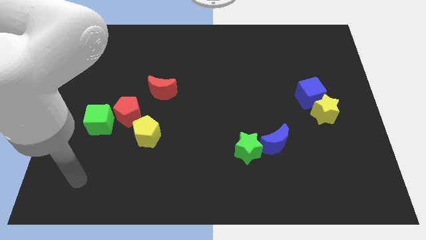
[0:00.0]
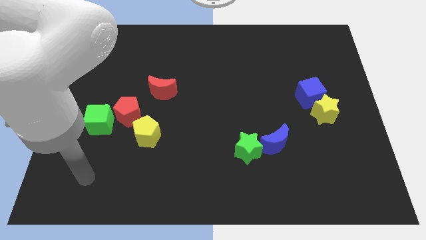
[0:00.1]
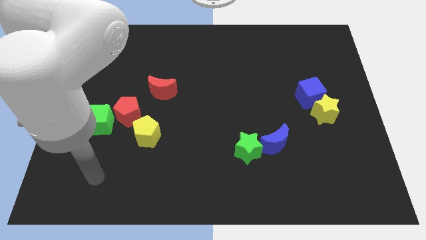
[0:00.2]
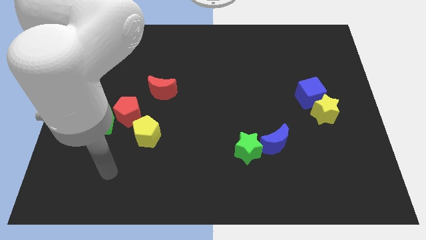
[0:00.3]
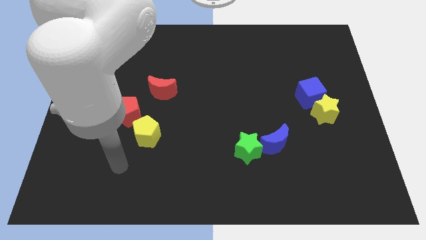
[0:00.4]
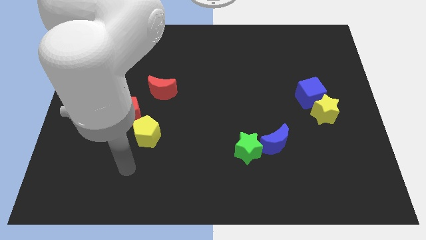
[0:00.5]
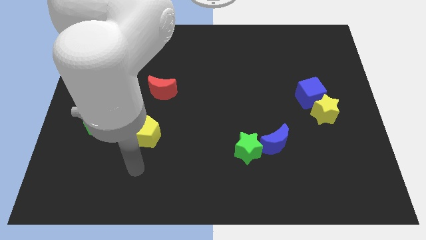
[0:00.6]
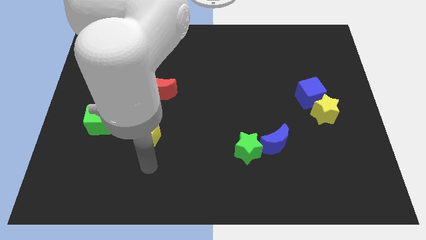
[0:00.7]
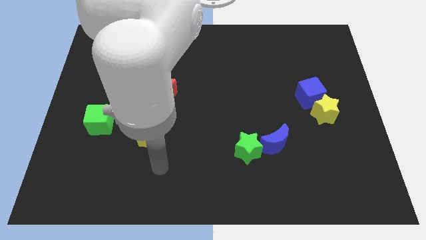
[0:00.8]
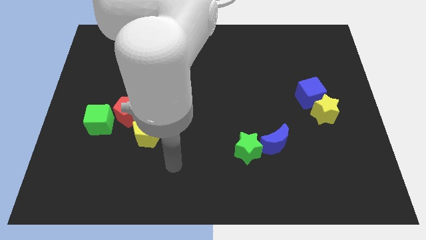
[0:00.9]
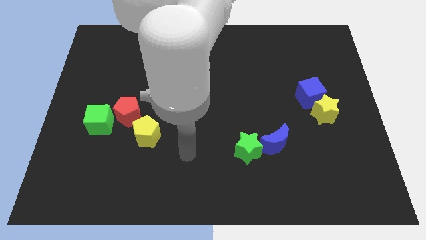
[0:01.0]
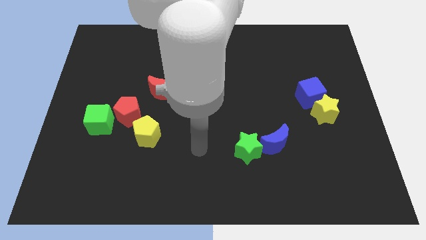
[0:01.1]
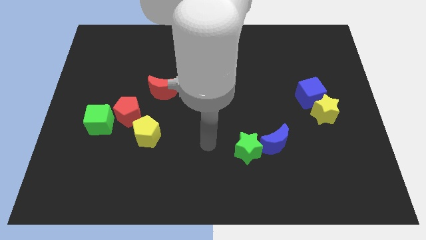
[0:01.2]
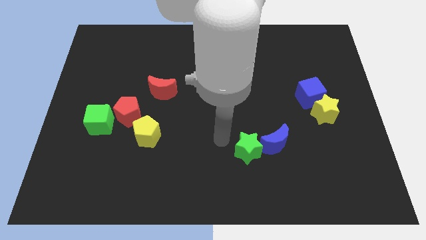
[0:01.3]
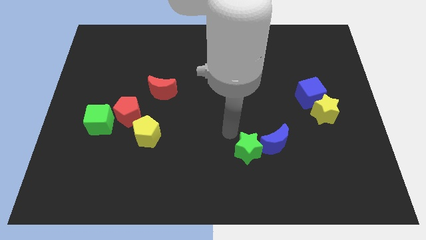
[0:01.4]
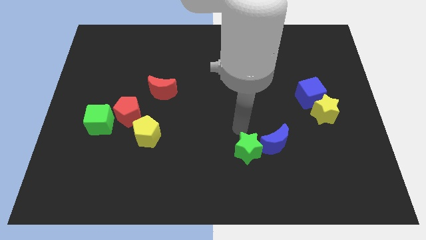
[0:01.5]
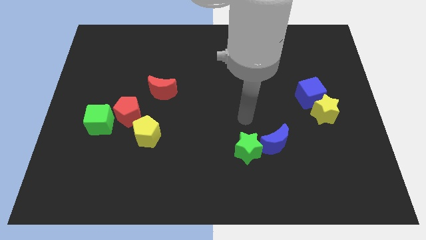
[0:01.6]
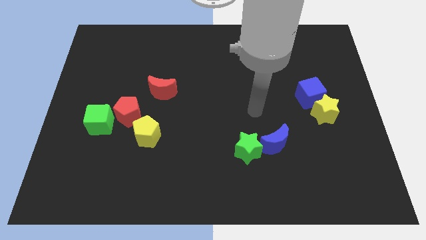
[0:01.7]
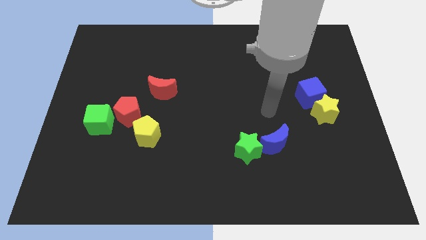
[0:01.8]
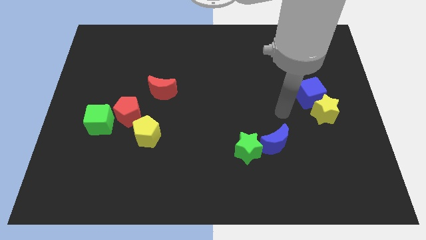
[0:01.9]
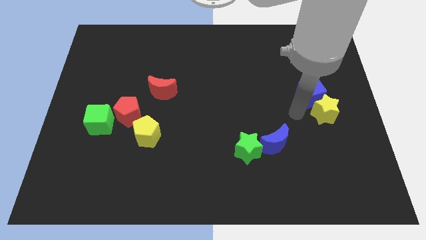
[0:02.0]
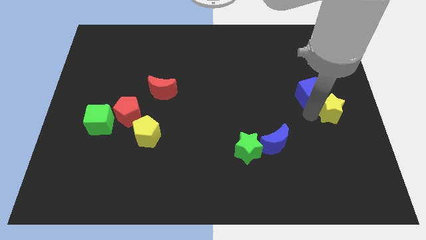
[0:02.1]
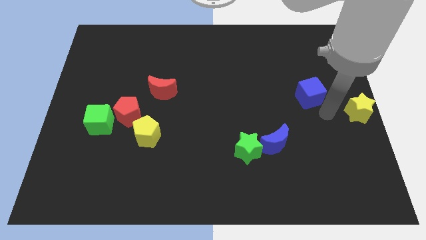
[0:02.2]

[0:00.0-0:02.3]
move the blue cube away from the yellow star

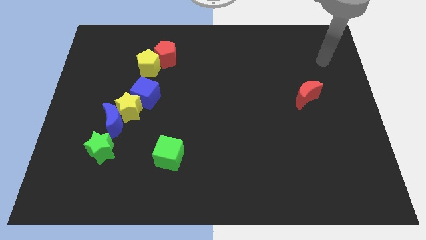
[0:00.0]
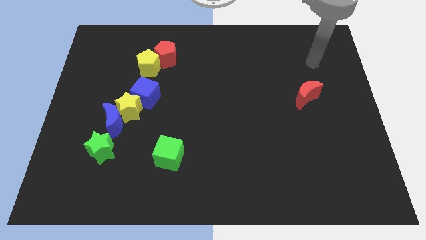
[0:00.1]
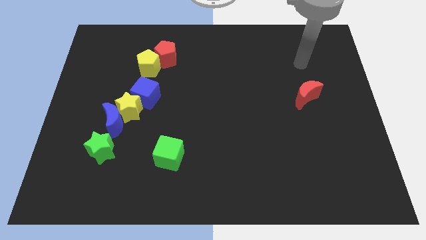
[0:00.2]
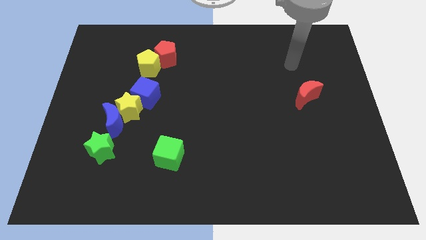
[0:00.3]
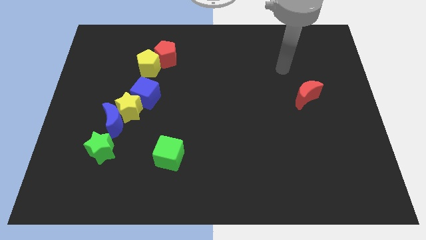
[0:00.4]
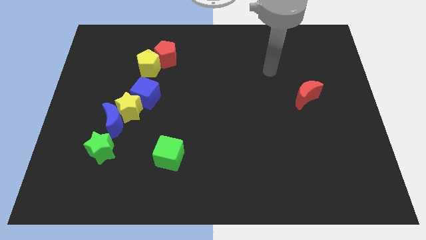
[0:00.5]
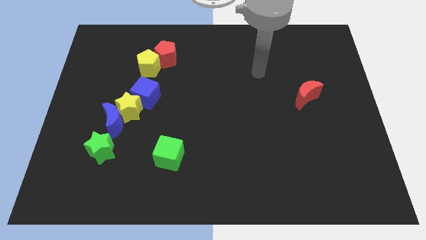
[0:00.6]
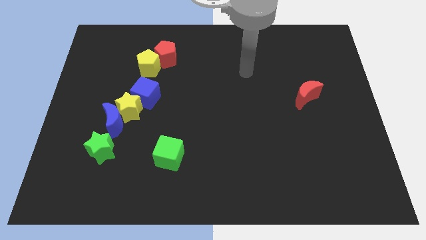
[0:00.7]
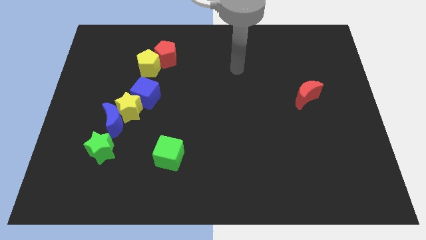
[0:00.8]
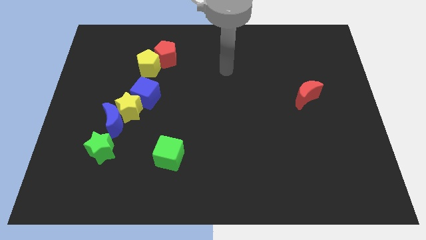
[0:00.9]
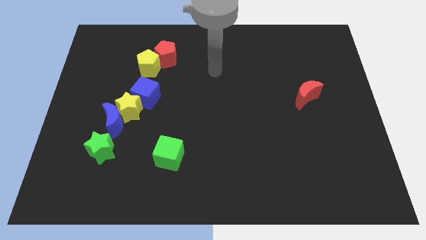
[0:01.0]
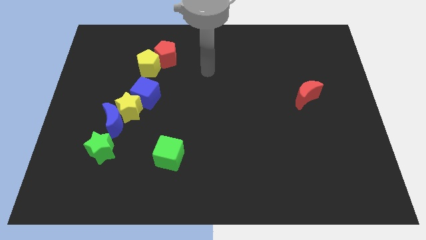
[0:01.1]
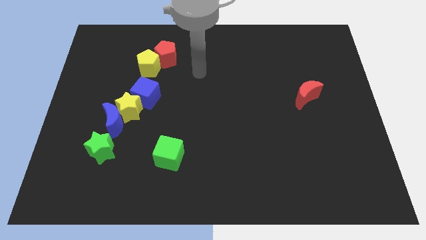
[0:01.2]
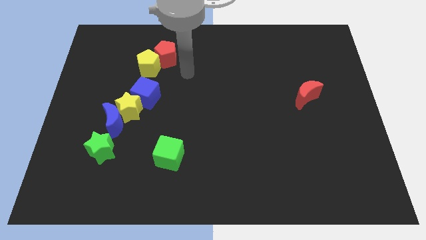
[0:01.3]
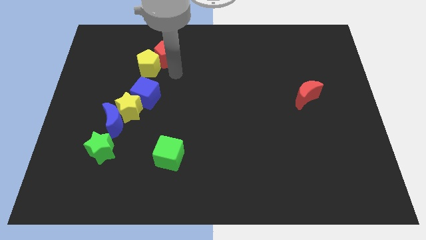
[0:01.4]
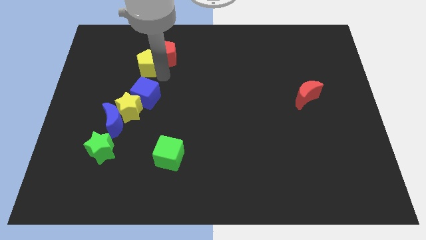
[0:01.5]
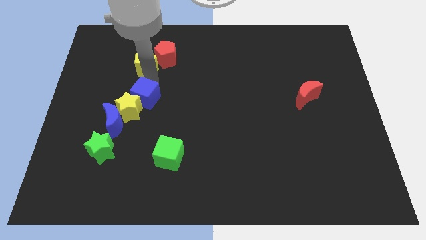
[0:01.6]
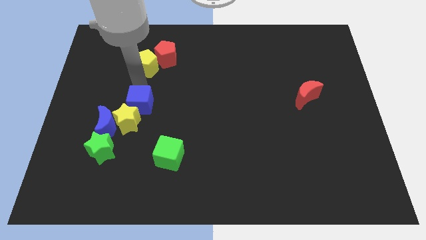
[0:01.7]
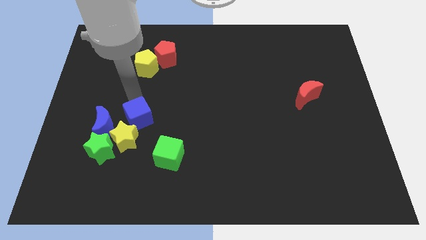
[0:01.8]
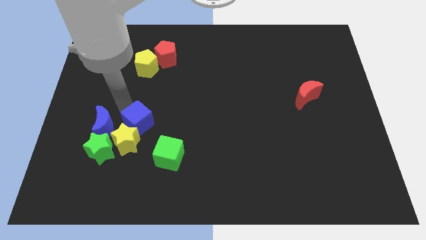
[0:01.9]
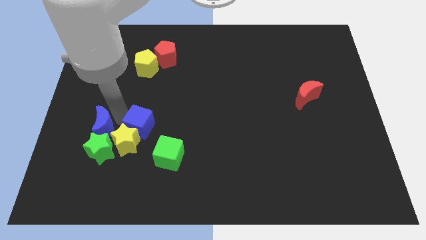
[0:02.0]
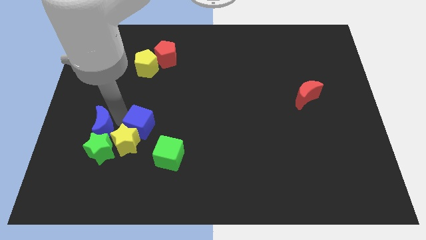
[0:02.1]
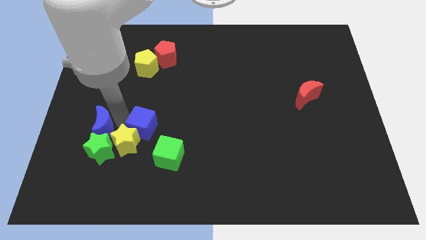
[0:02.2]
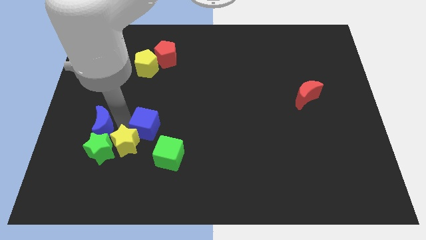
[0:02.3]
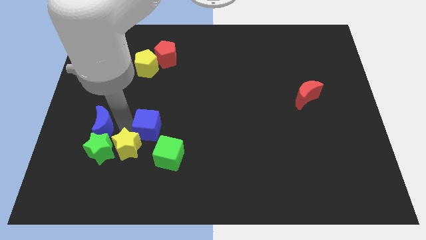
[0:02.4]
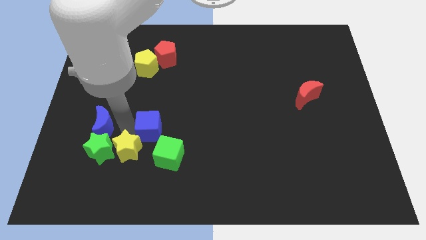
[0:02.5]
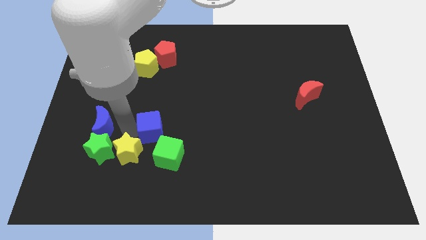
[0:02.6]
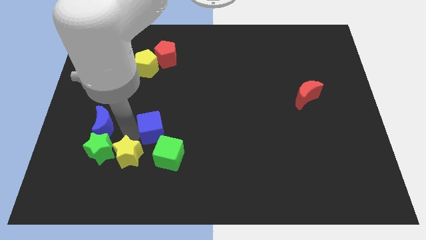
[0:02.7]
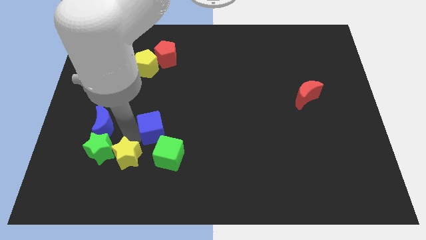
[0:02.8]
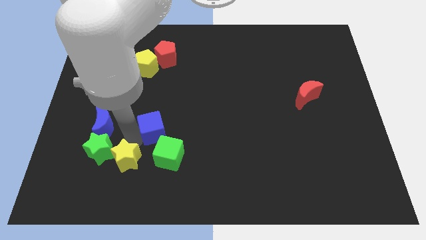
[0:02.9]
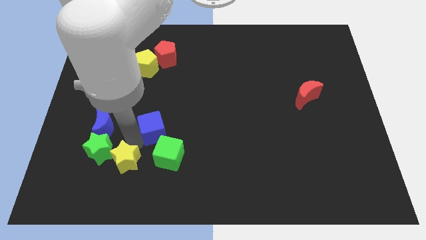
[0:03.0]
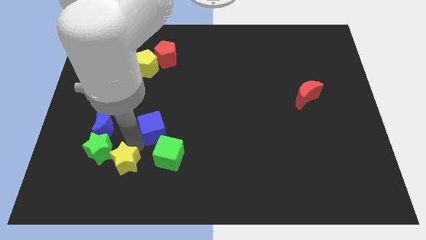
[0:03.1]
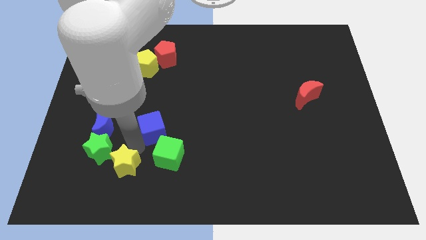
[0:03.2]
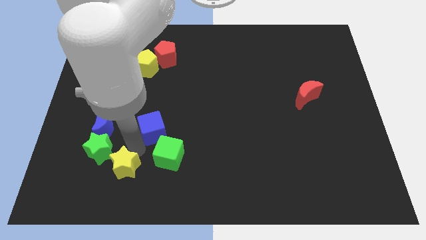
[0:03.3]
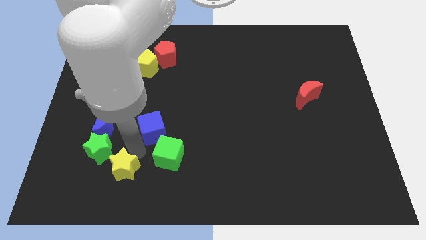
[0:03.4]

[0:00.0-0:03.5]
move the yellow star away from the blue moon and blue cube

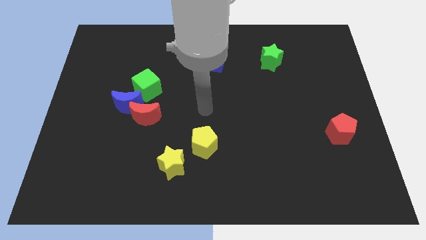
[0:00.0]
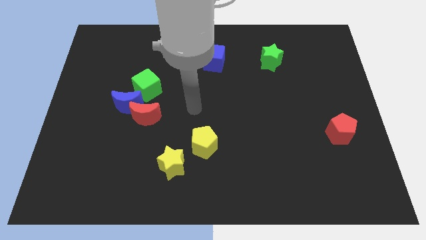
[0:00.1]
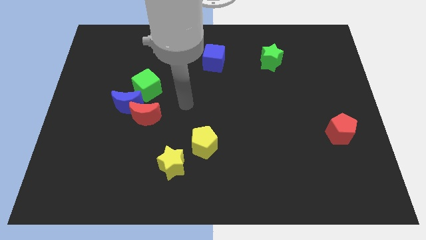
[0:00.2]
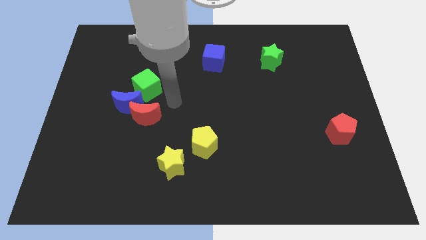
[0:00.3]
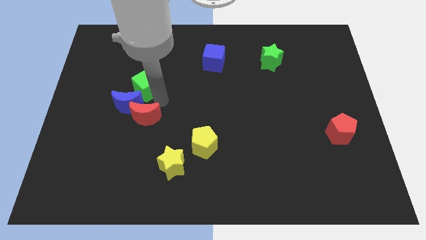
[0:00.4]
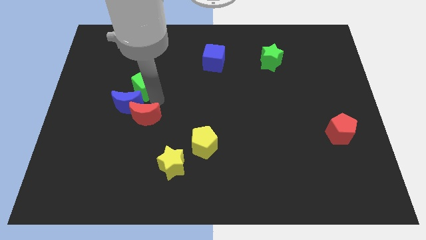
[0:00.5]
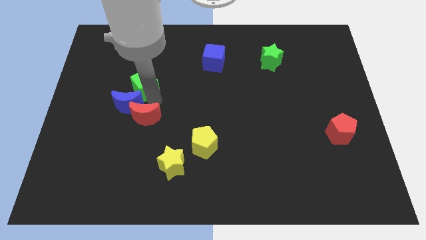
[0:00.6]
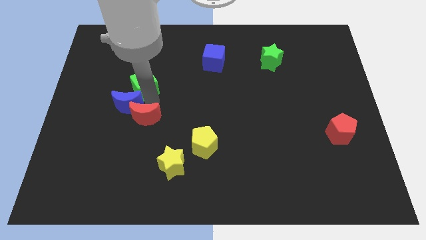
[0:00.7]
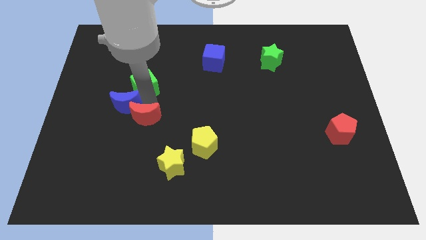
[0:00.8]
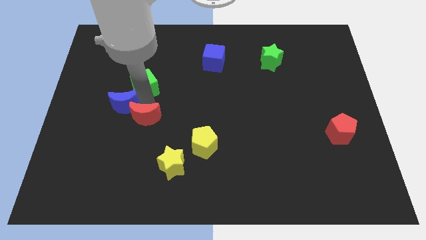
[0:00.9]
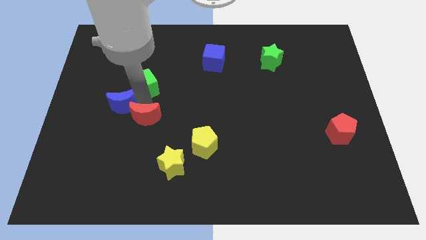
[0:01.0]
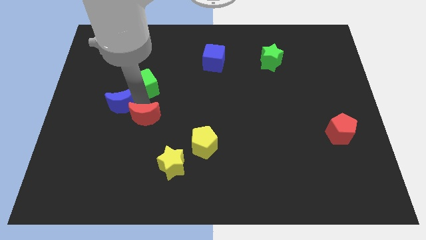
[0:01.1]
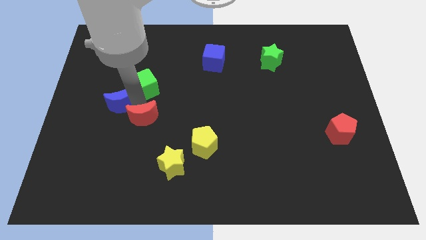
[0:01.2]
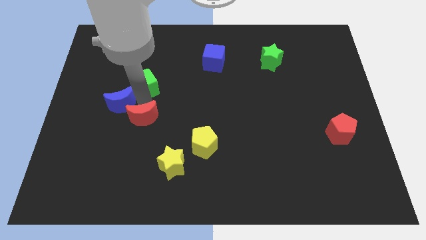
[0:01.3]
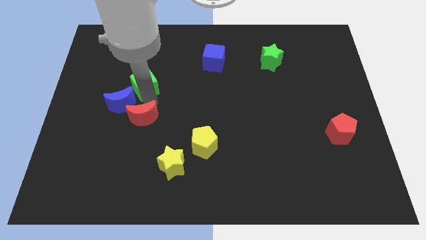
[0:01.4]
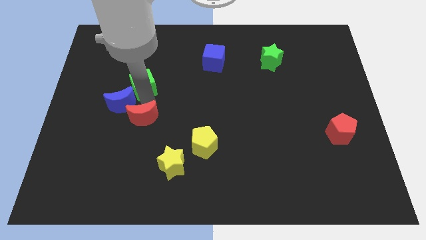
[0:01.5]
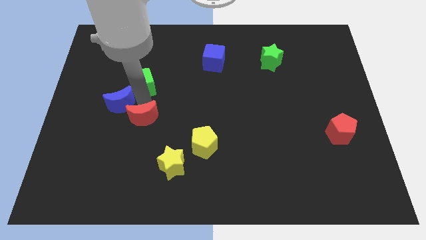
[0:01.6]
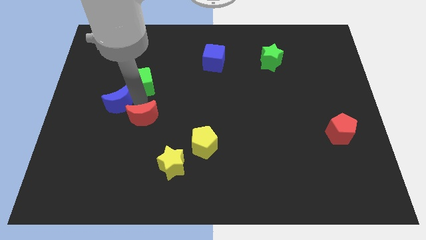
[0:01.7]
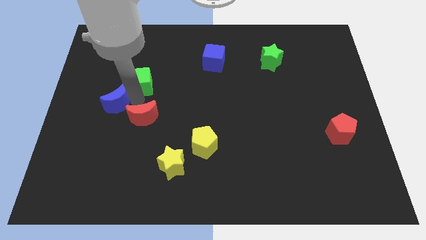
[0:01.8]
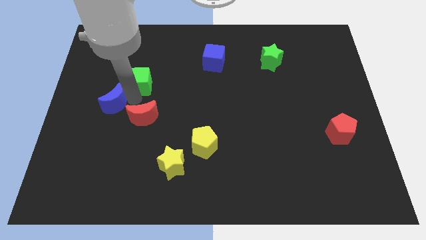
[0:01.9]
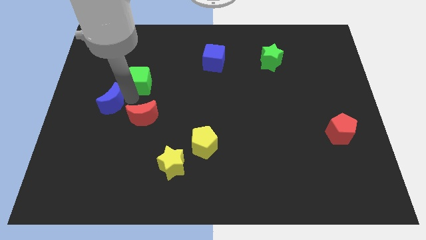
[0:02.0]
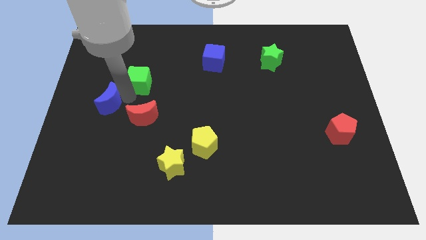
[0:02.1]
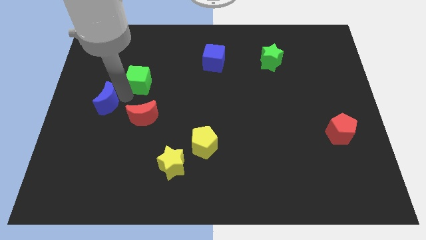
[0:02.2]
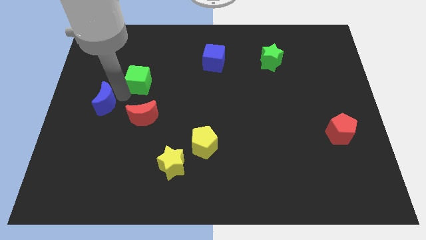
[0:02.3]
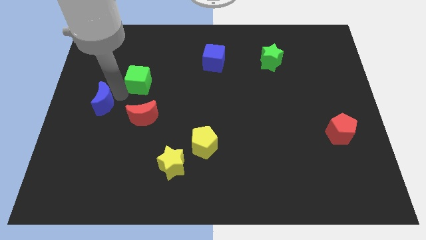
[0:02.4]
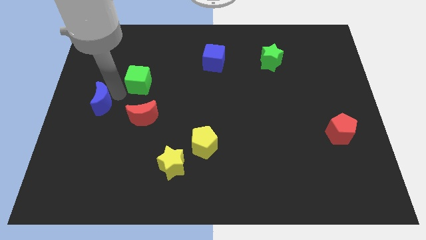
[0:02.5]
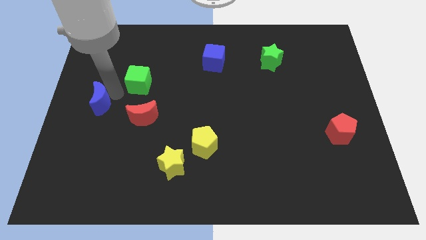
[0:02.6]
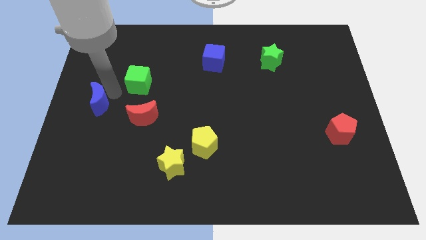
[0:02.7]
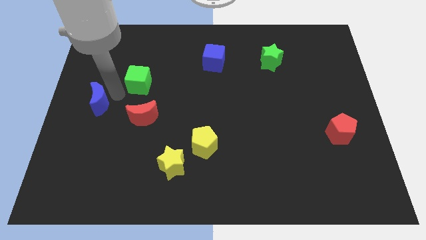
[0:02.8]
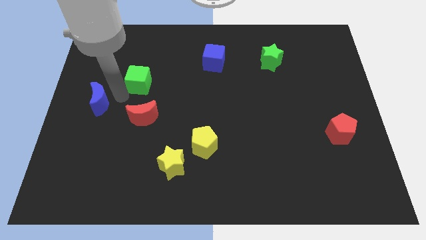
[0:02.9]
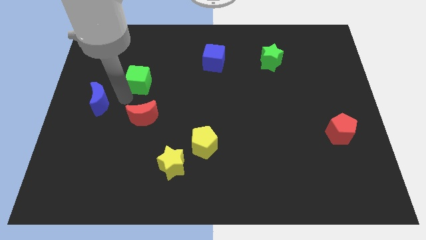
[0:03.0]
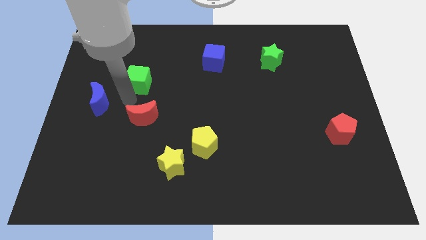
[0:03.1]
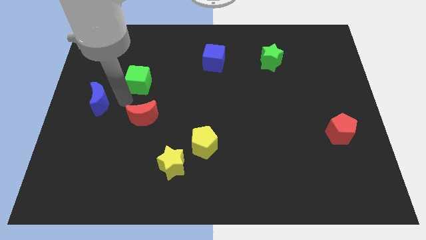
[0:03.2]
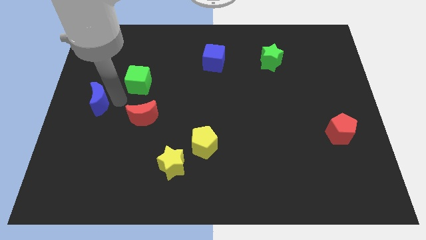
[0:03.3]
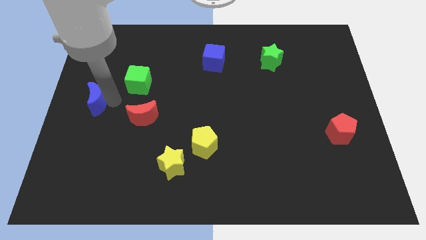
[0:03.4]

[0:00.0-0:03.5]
separate the blue moon from the red moon and green cube
